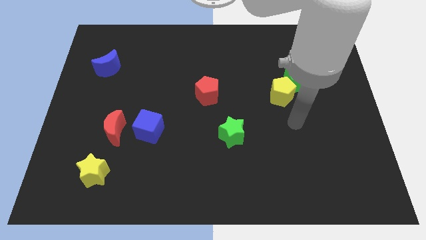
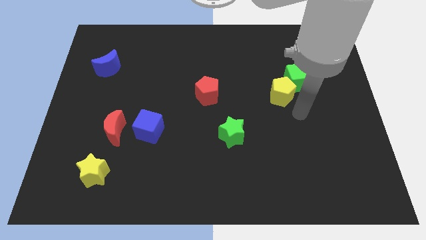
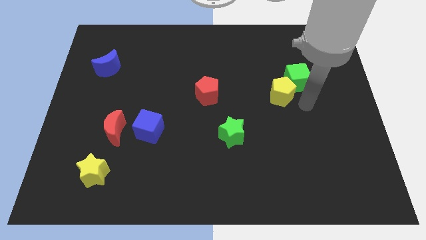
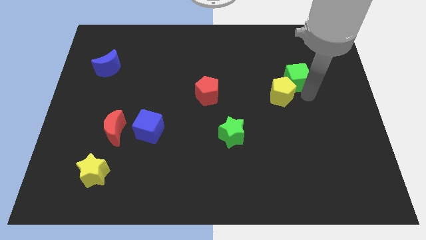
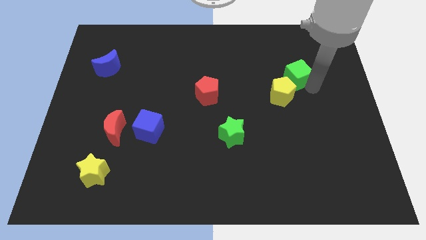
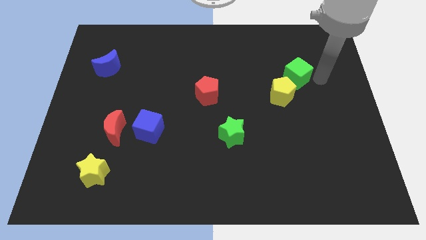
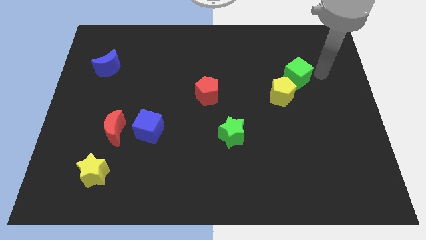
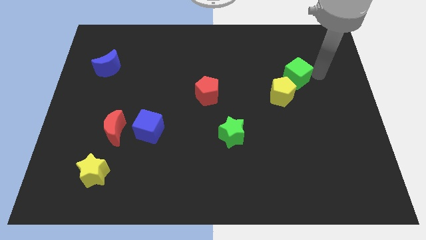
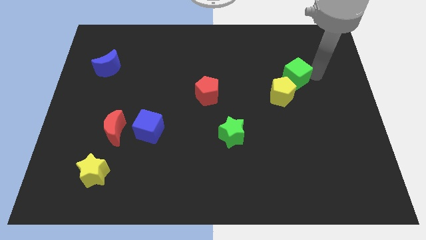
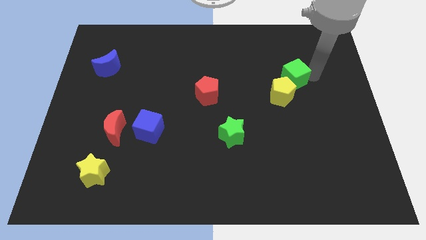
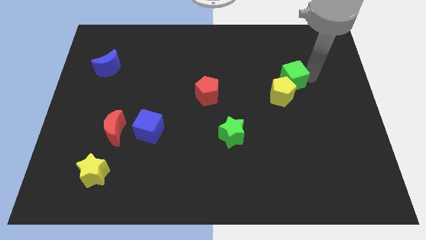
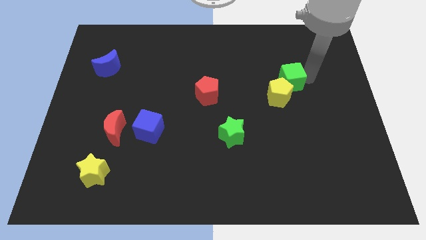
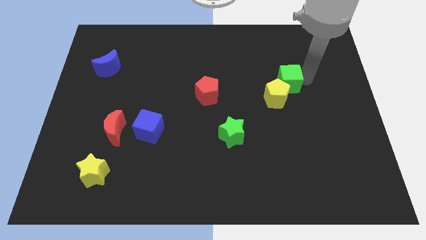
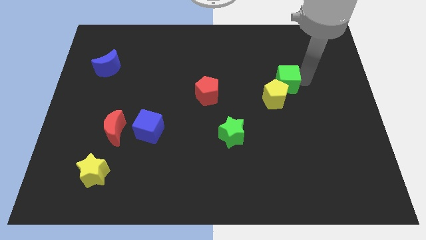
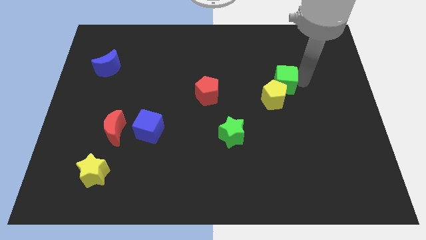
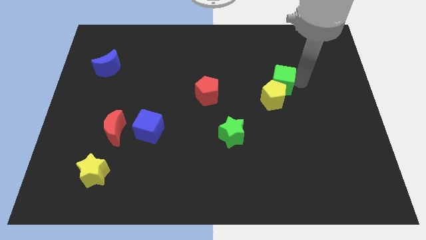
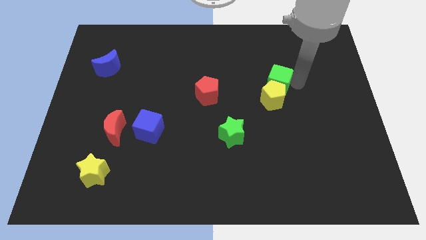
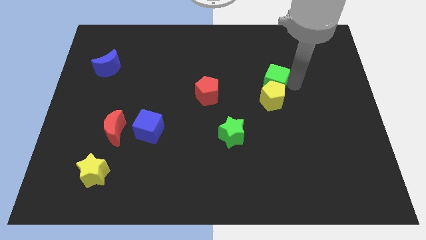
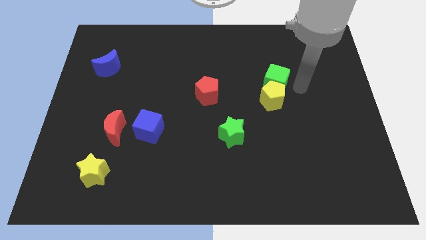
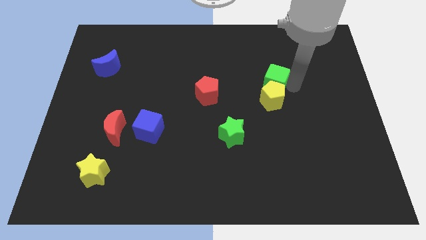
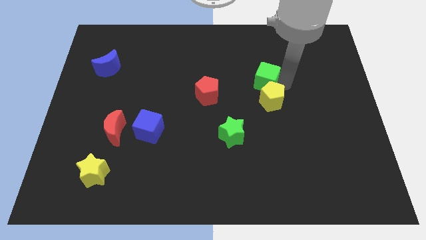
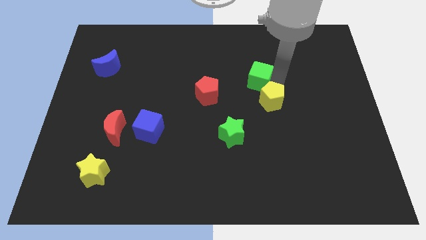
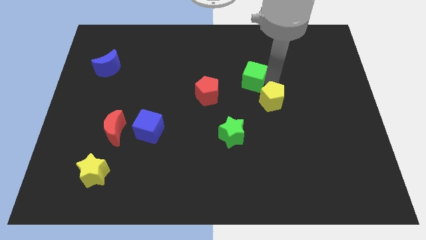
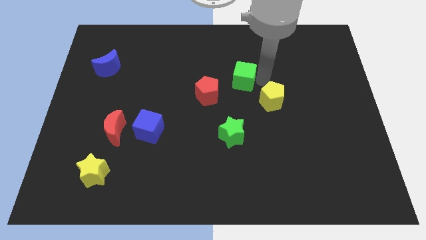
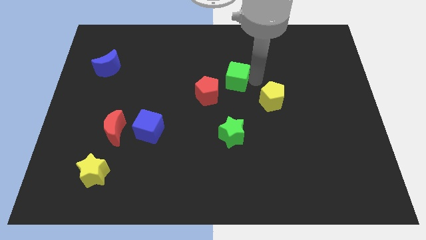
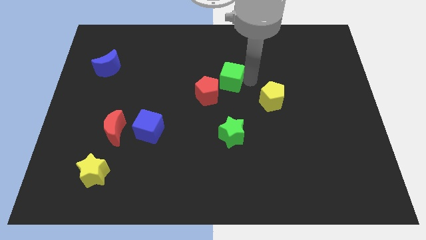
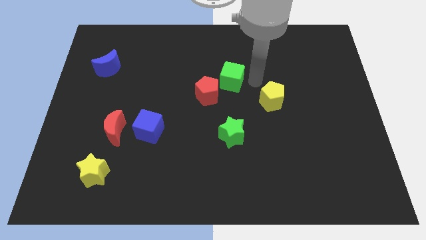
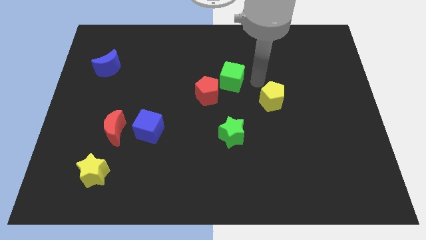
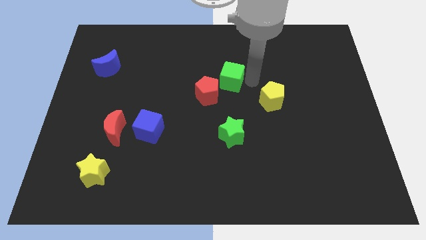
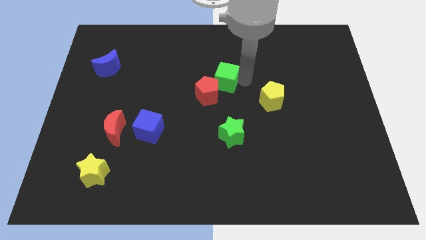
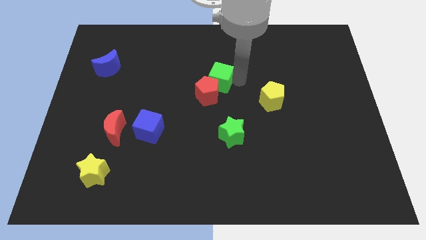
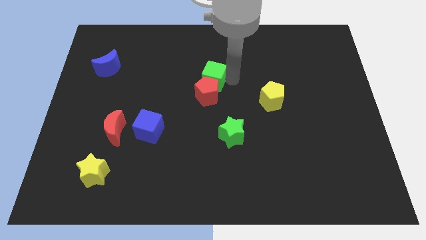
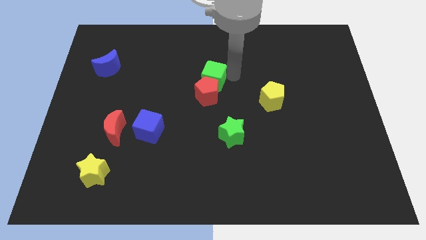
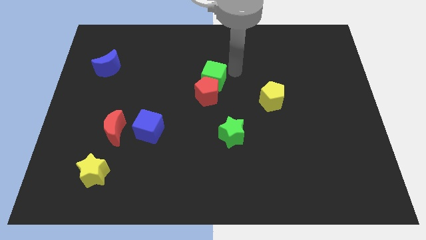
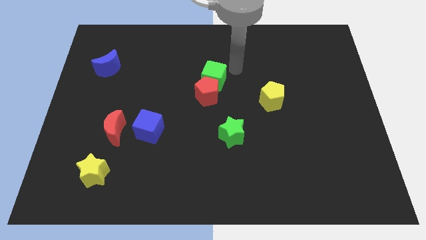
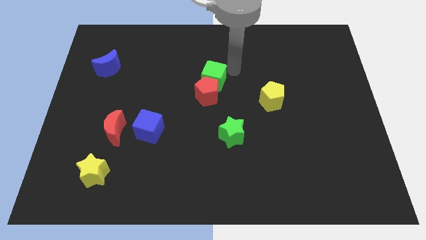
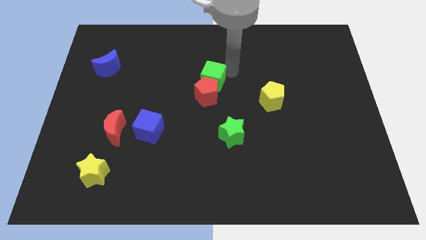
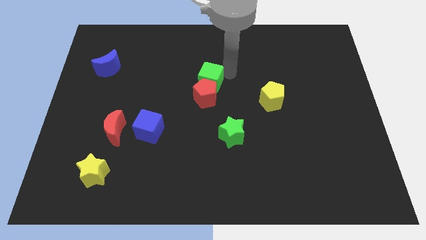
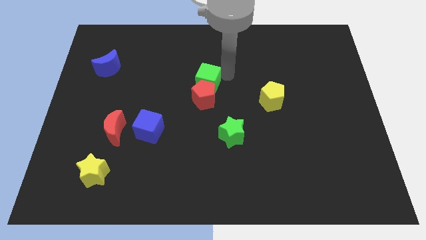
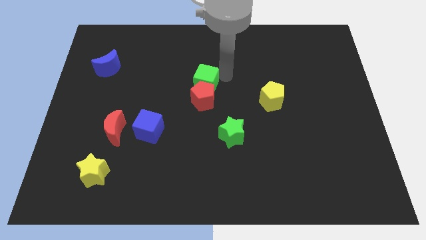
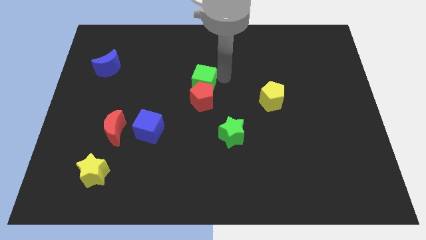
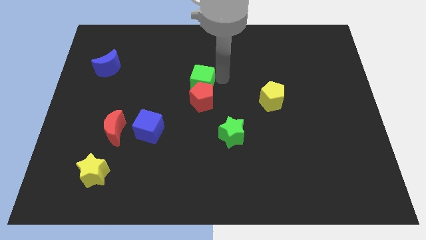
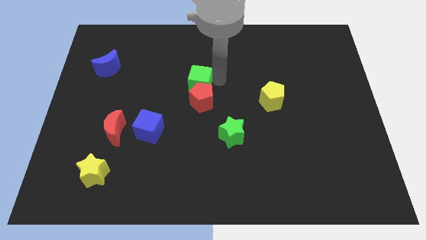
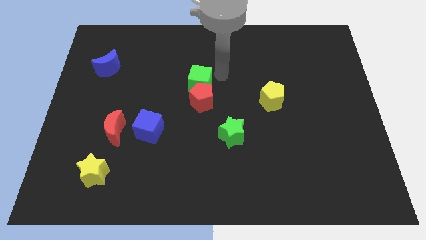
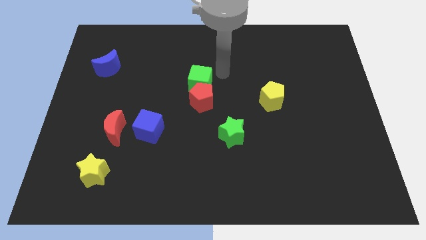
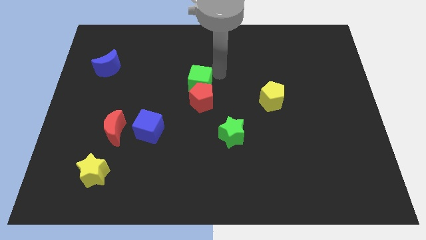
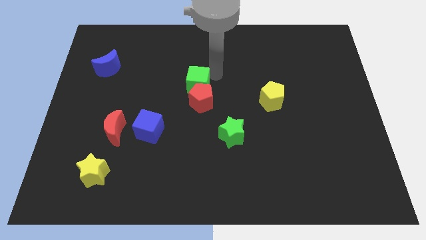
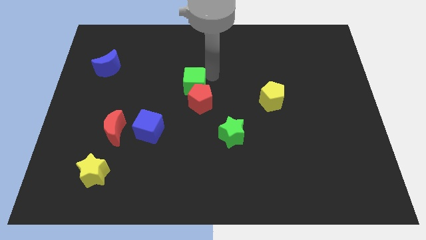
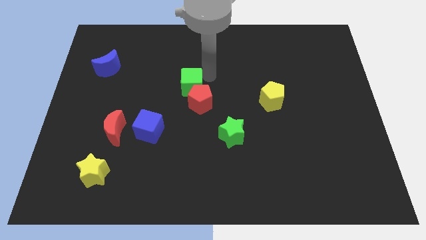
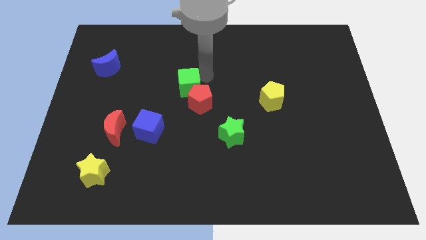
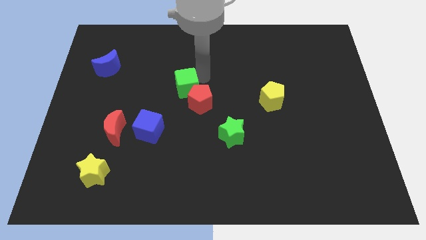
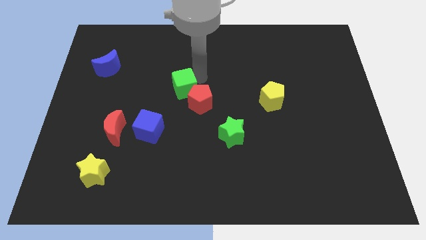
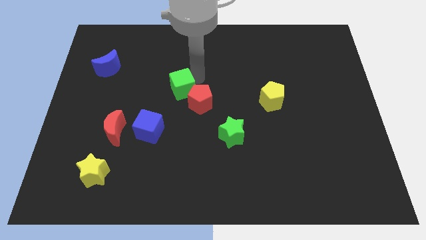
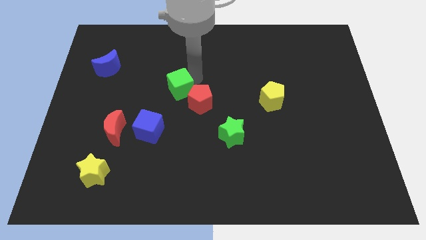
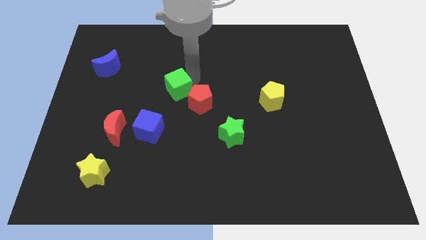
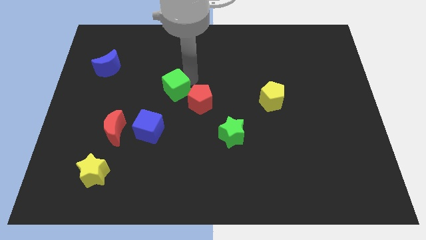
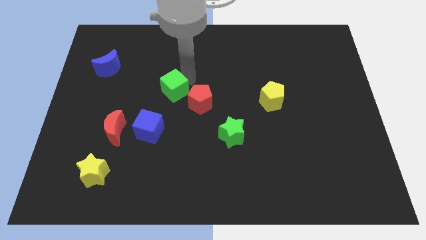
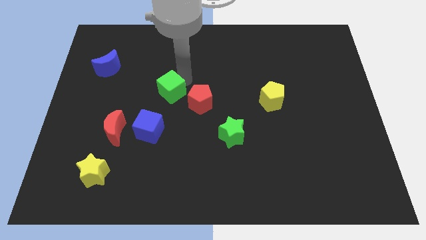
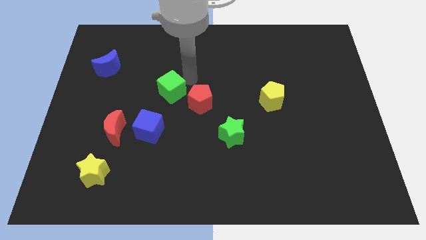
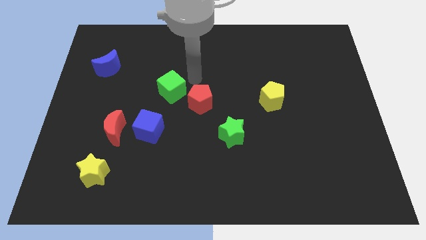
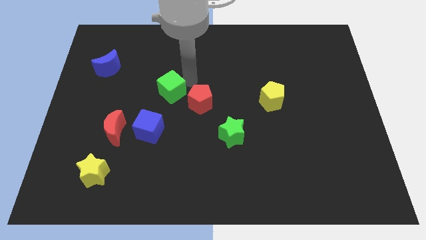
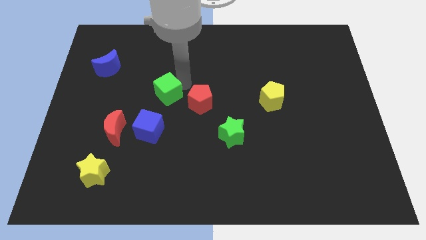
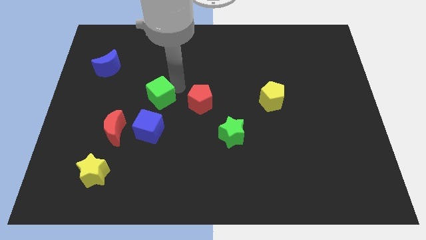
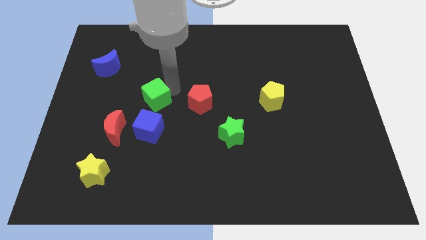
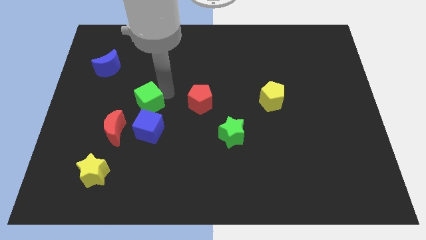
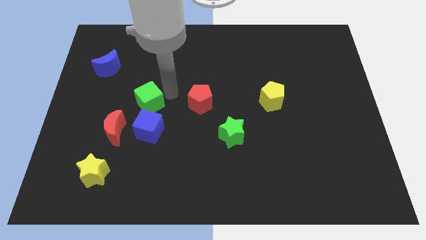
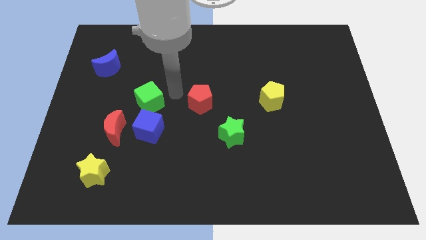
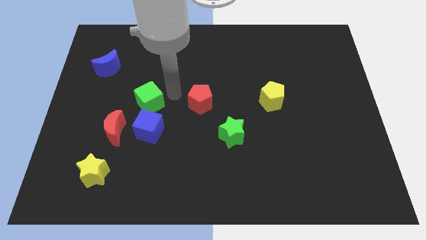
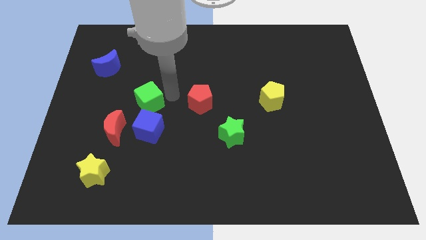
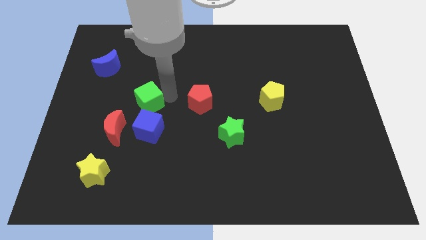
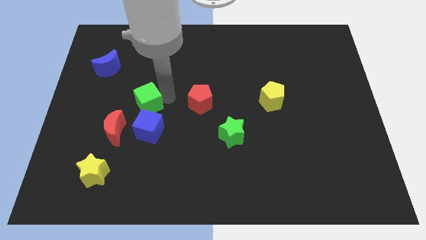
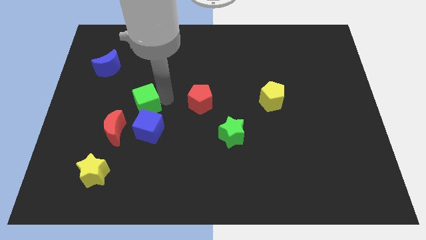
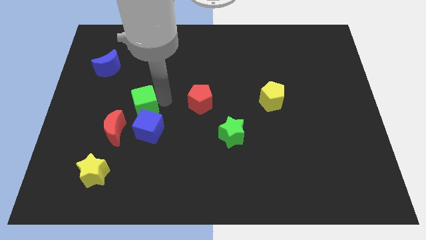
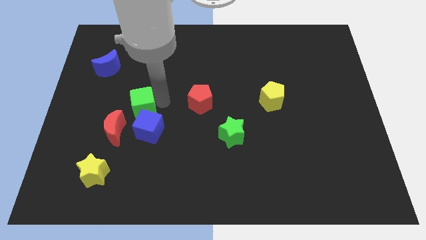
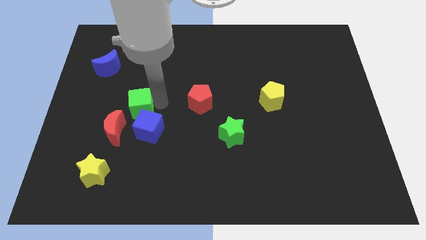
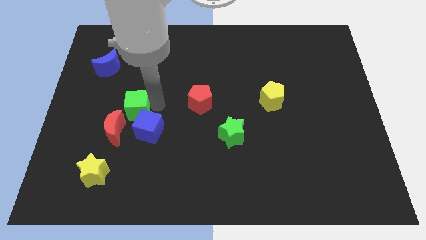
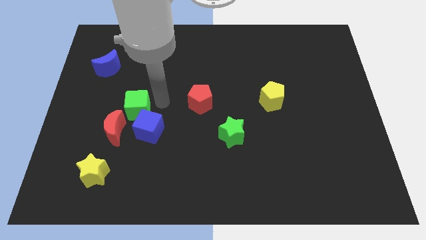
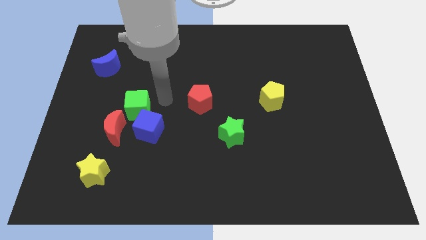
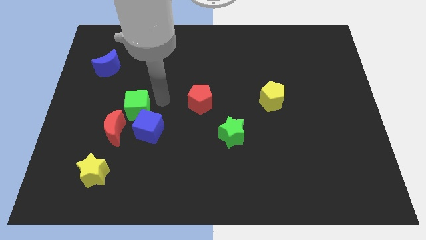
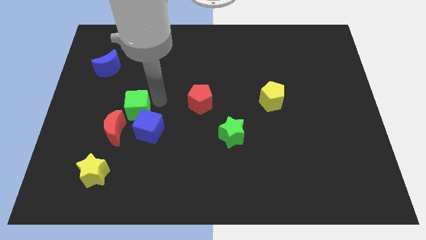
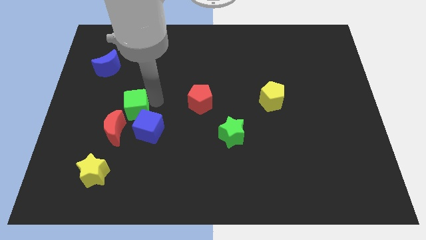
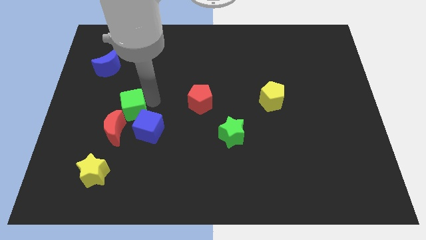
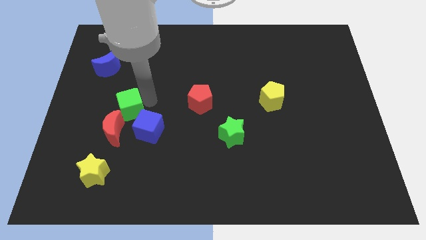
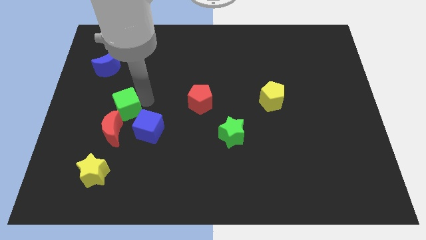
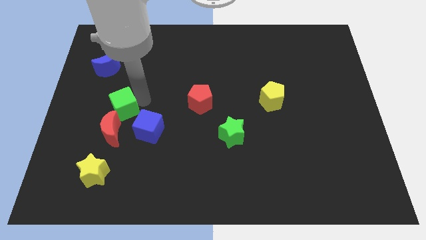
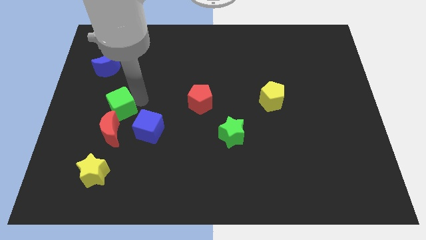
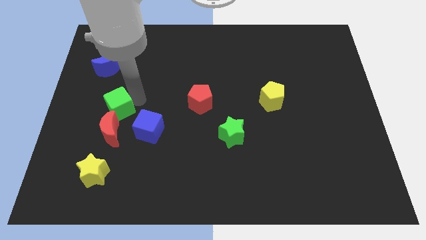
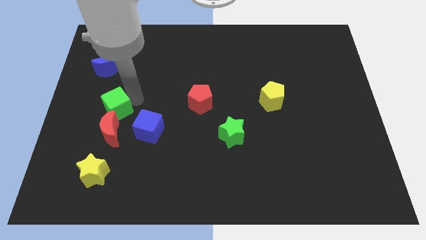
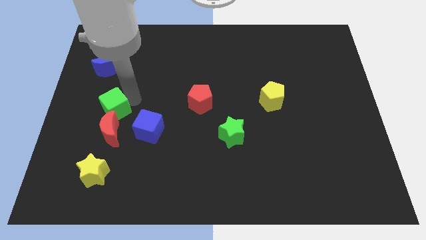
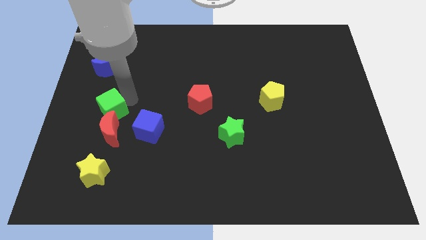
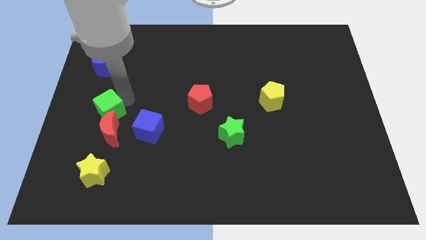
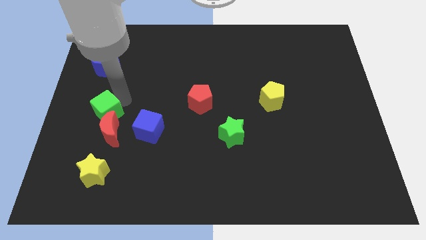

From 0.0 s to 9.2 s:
slide the green cube above the yellow star
